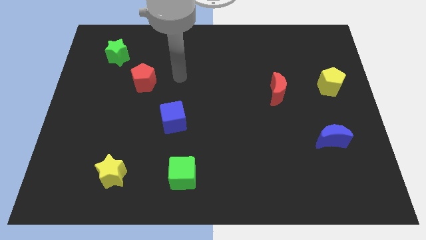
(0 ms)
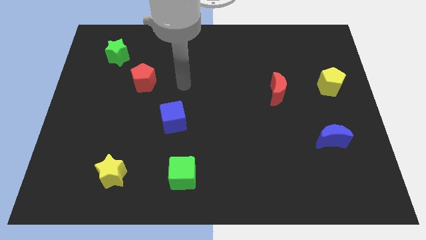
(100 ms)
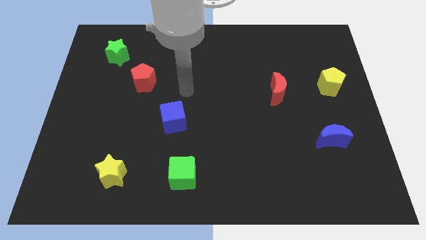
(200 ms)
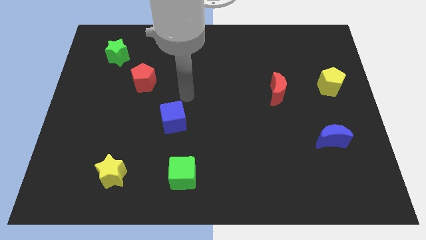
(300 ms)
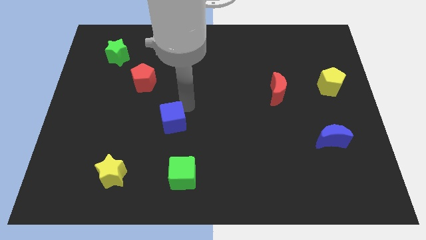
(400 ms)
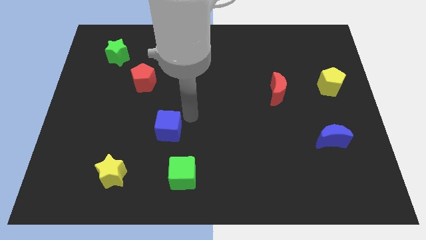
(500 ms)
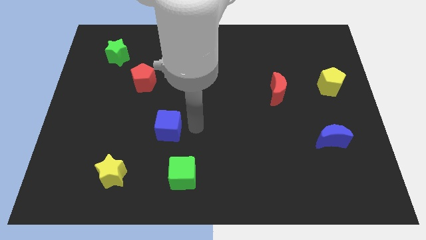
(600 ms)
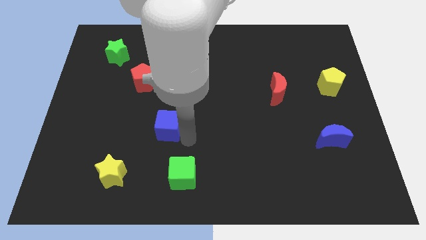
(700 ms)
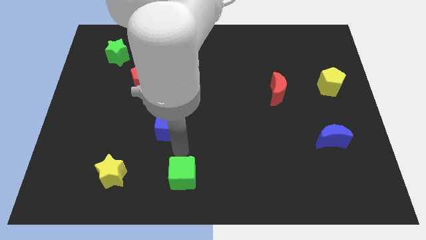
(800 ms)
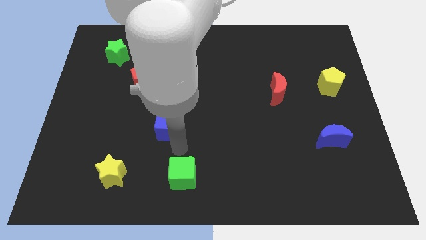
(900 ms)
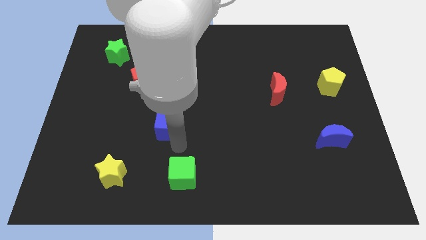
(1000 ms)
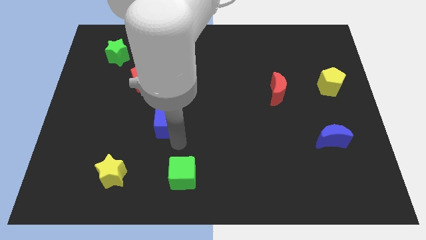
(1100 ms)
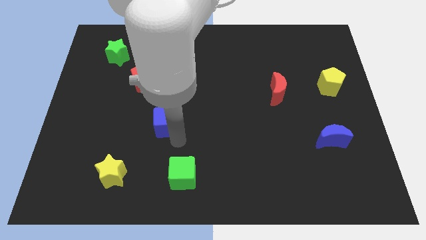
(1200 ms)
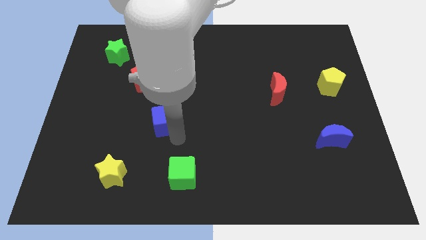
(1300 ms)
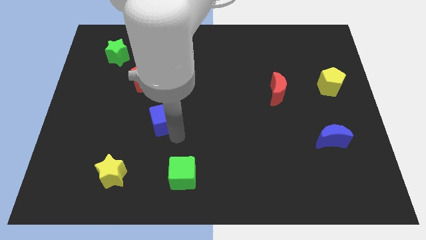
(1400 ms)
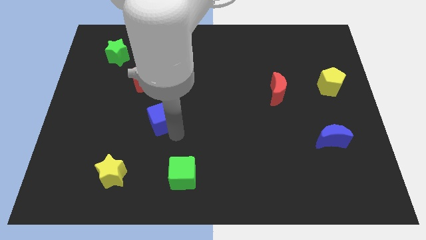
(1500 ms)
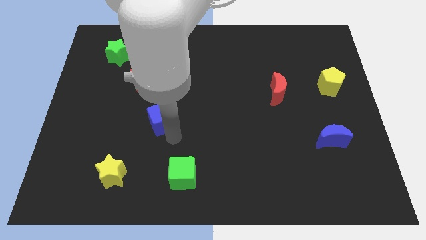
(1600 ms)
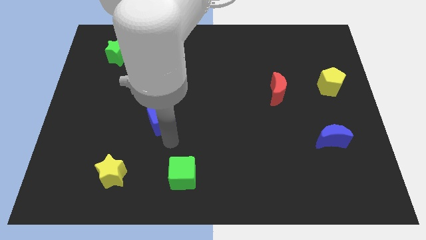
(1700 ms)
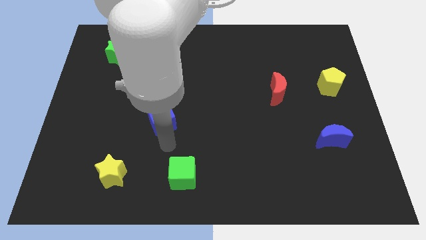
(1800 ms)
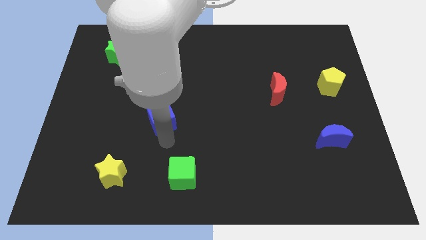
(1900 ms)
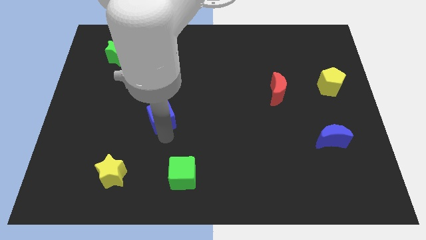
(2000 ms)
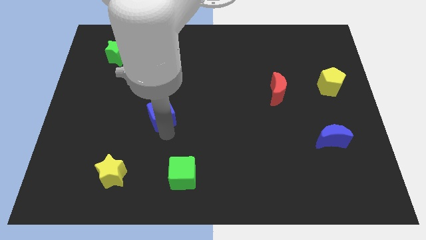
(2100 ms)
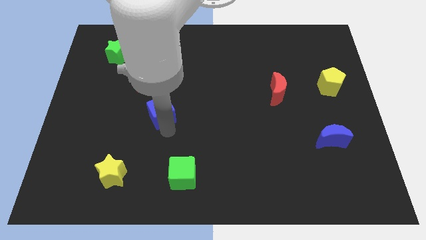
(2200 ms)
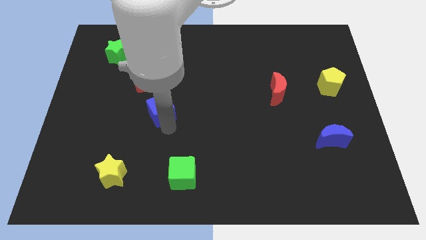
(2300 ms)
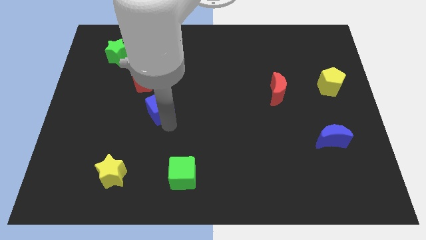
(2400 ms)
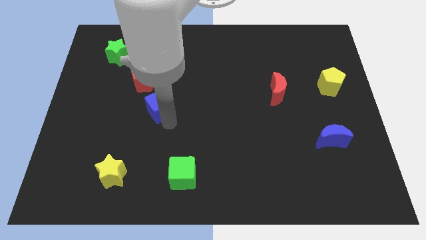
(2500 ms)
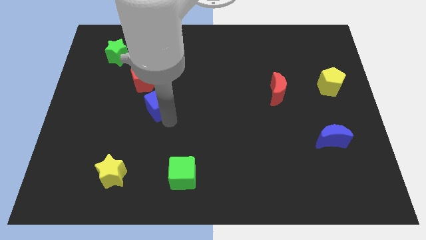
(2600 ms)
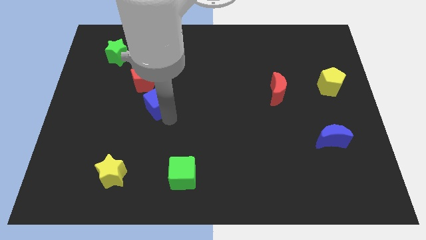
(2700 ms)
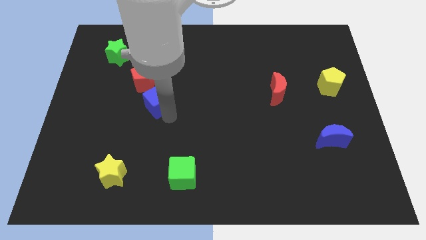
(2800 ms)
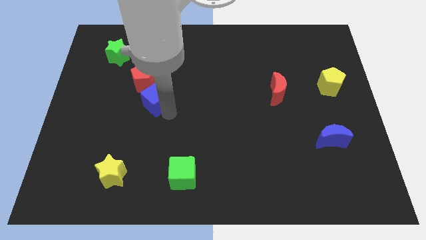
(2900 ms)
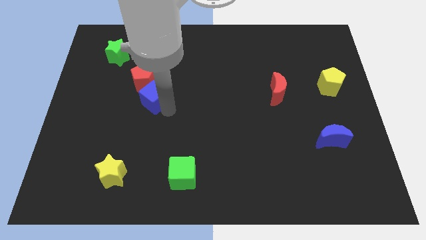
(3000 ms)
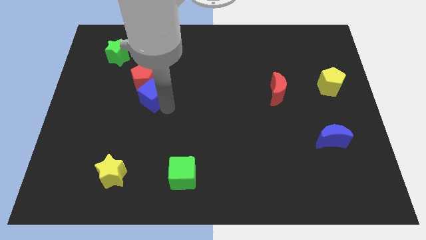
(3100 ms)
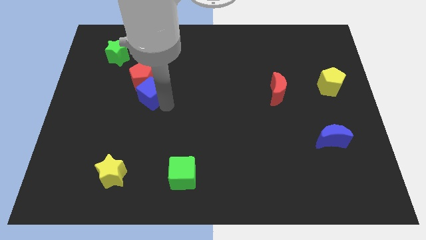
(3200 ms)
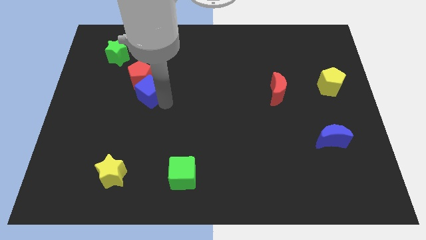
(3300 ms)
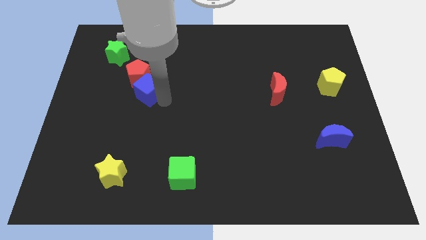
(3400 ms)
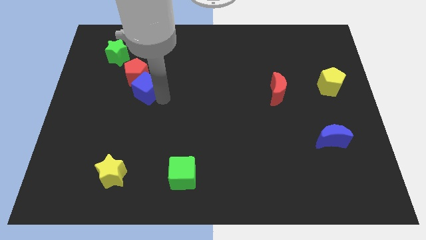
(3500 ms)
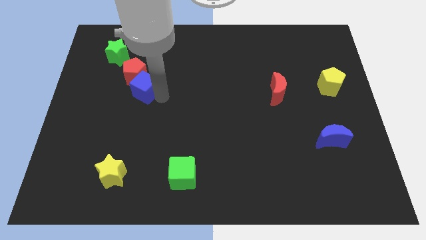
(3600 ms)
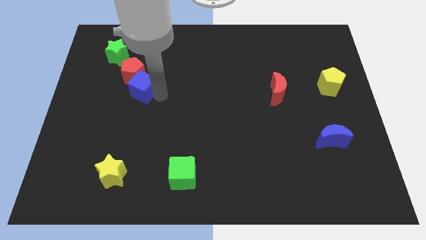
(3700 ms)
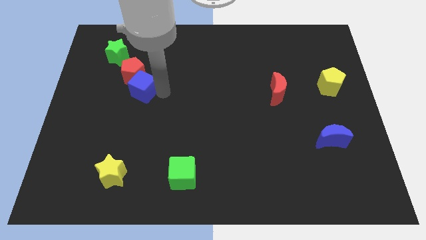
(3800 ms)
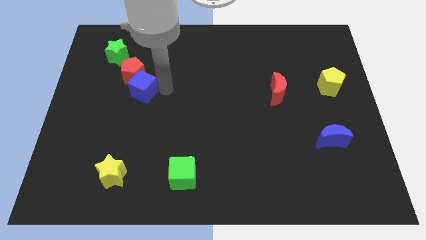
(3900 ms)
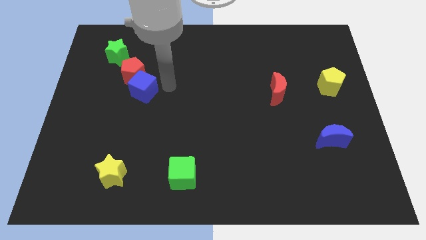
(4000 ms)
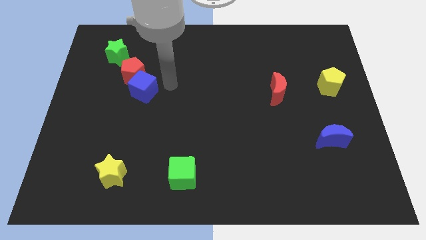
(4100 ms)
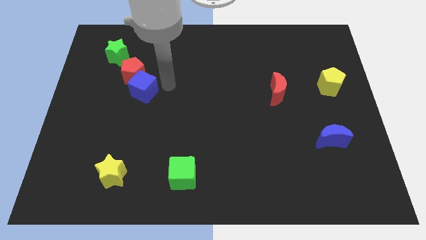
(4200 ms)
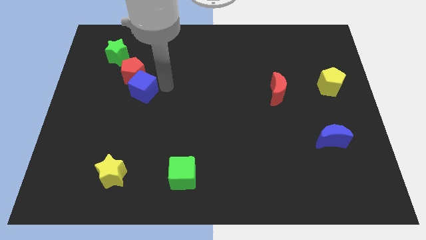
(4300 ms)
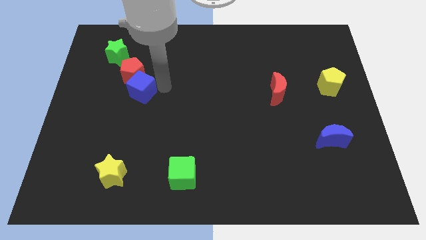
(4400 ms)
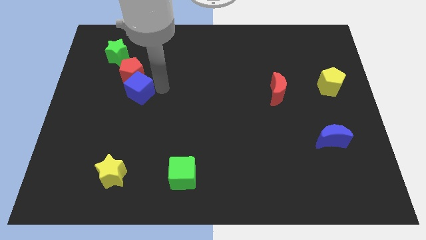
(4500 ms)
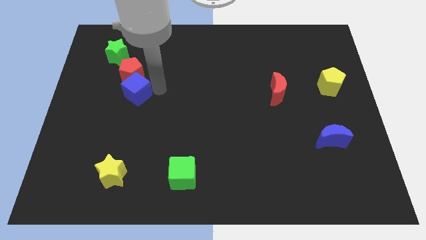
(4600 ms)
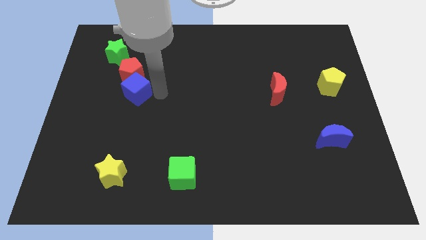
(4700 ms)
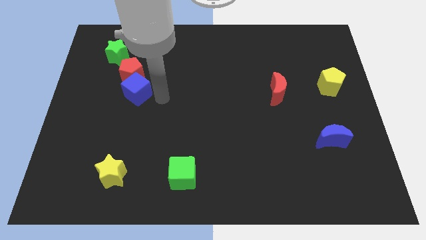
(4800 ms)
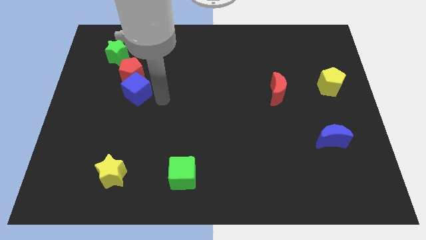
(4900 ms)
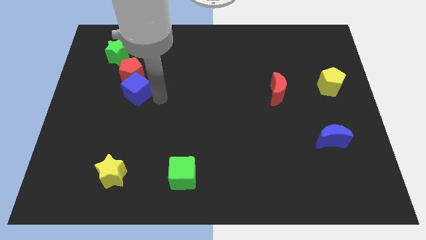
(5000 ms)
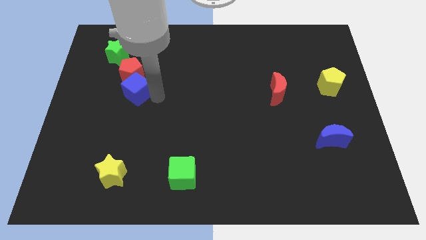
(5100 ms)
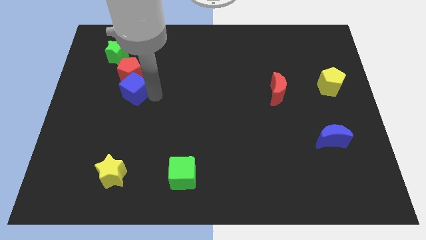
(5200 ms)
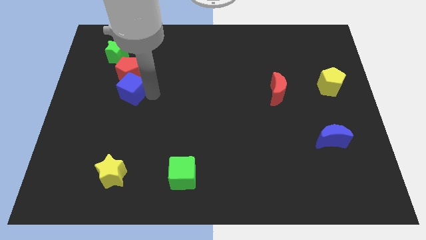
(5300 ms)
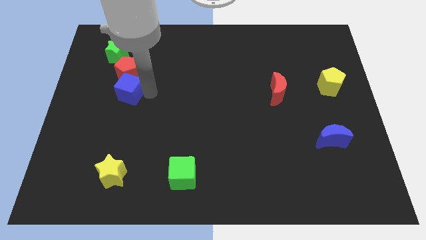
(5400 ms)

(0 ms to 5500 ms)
slide the blue cube below the green star

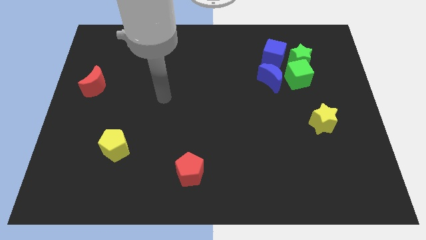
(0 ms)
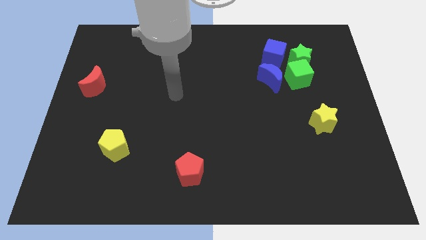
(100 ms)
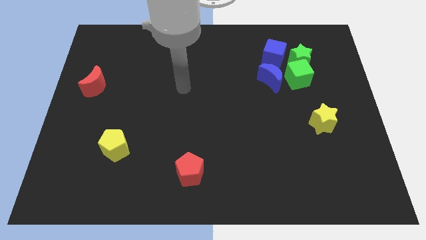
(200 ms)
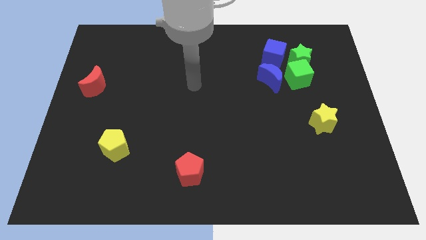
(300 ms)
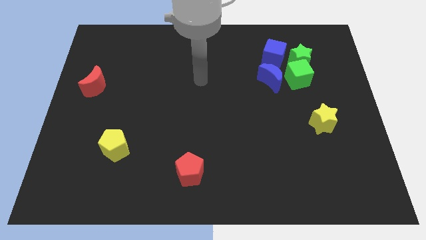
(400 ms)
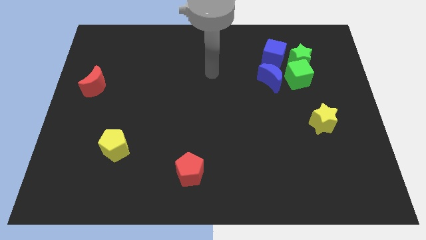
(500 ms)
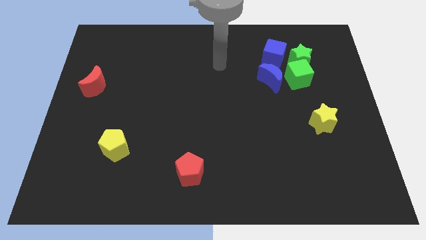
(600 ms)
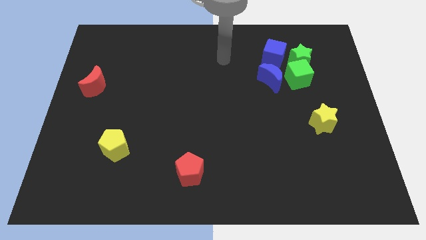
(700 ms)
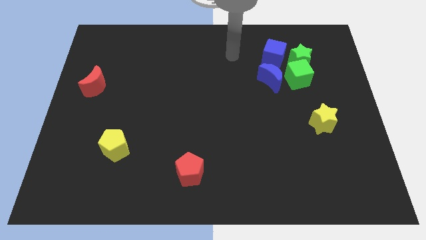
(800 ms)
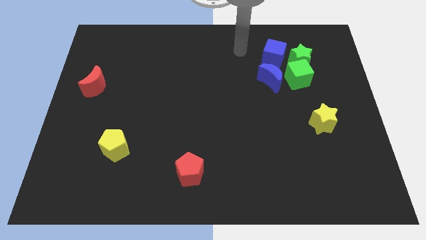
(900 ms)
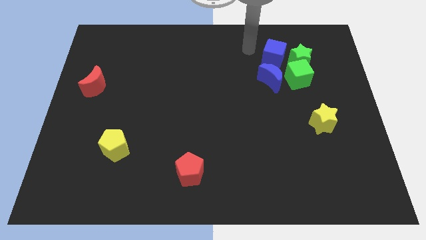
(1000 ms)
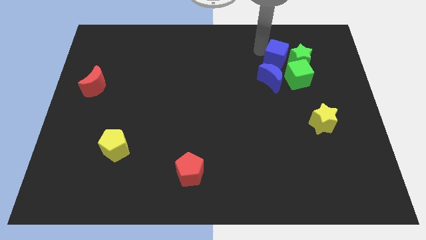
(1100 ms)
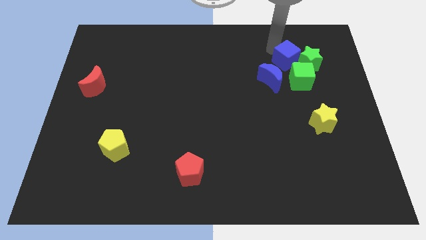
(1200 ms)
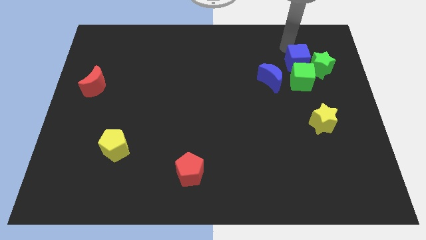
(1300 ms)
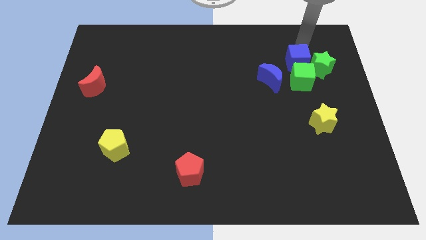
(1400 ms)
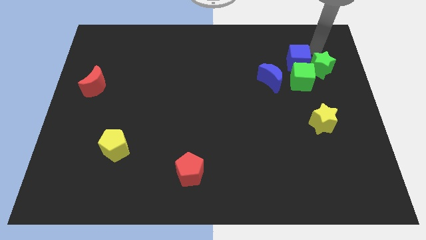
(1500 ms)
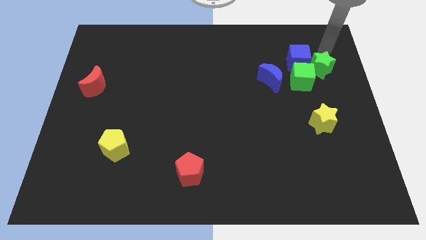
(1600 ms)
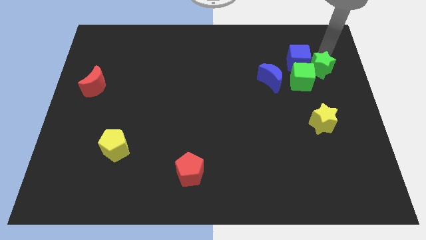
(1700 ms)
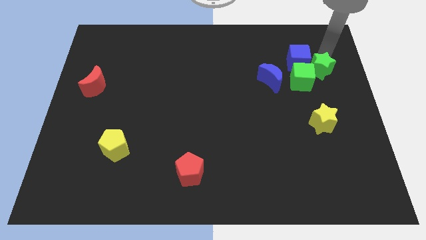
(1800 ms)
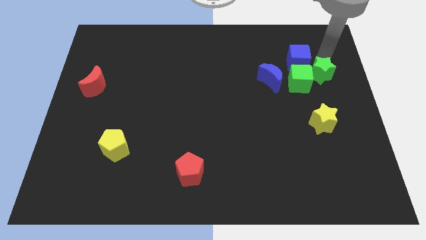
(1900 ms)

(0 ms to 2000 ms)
move the green star to the top side of the yellow star

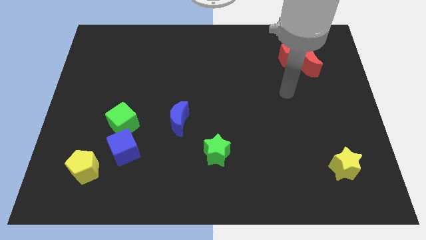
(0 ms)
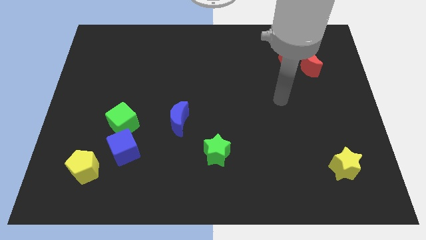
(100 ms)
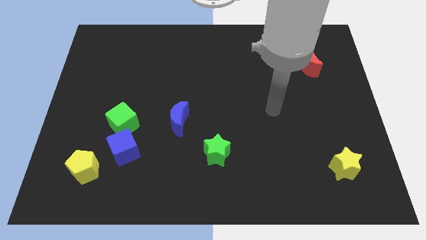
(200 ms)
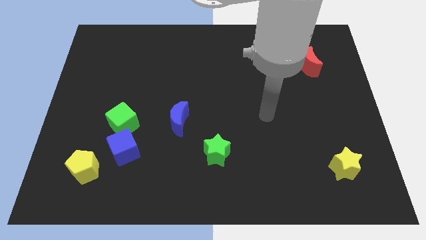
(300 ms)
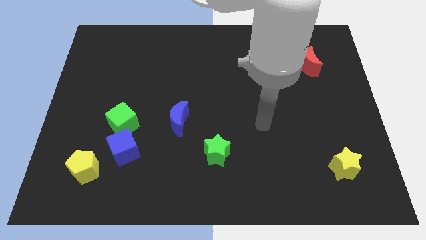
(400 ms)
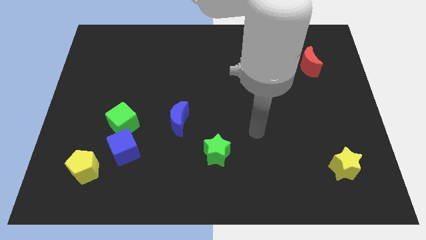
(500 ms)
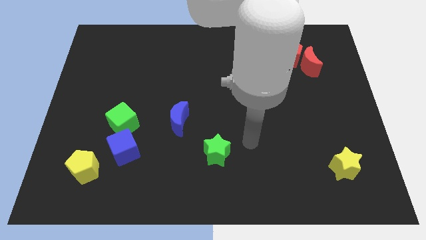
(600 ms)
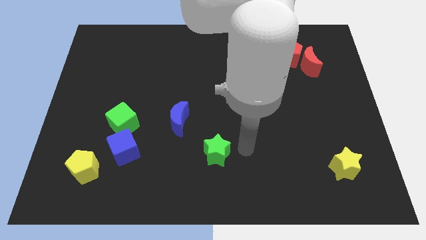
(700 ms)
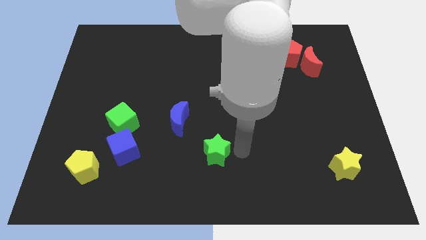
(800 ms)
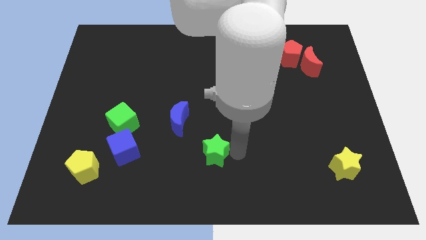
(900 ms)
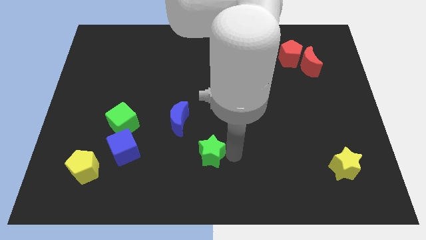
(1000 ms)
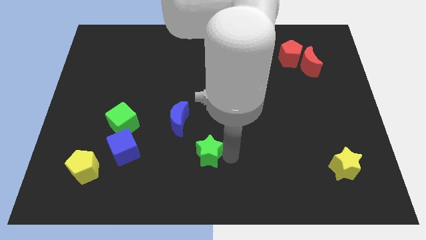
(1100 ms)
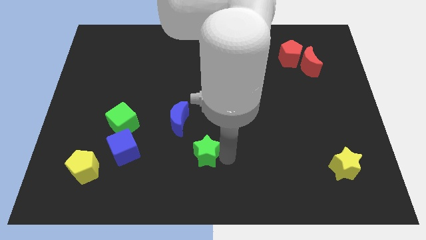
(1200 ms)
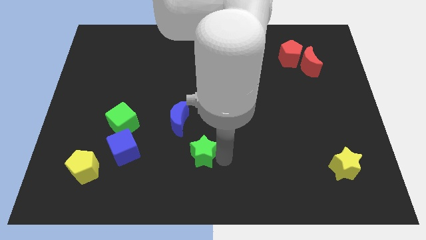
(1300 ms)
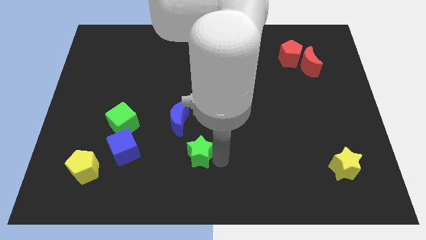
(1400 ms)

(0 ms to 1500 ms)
put the green star below the blue moon
